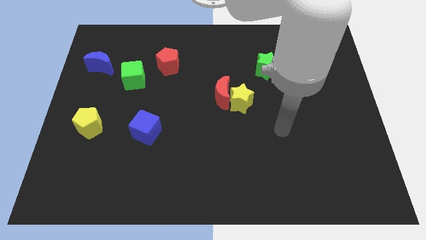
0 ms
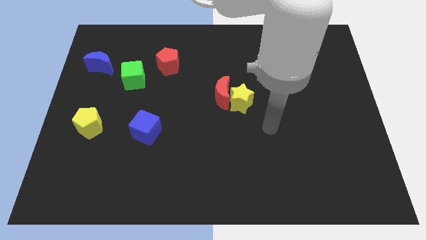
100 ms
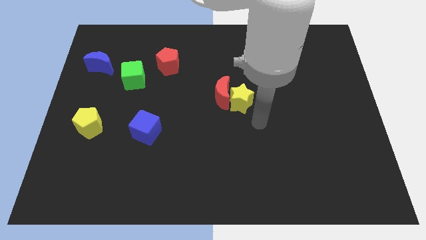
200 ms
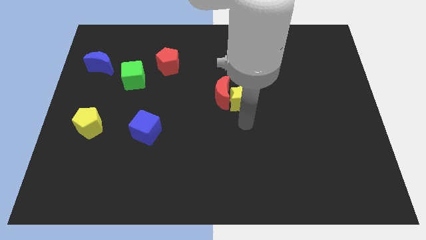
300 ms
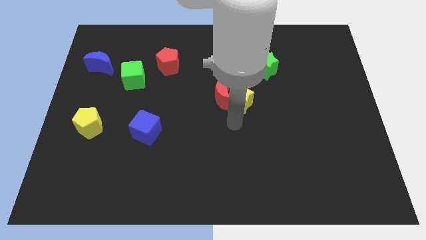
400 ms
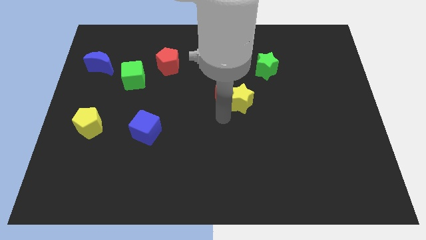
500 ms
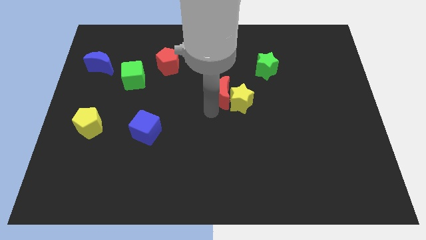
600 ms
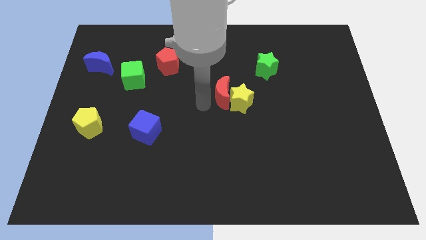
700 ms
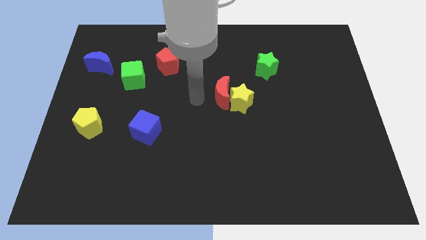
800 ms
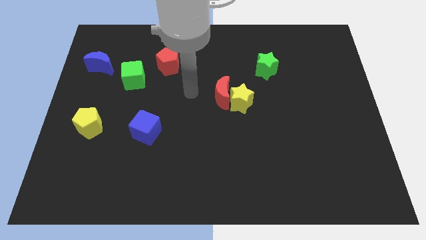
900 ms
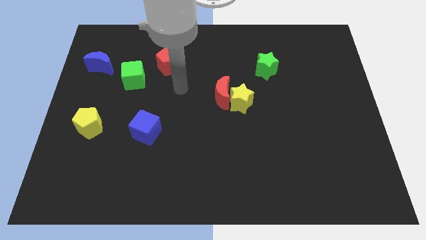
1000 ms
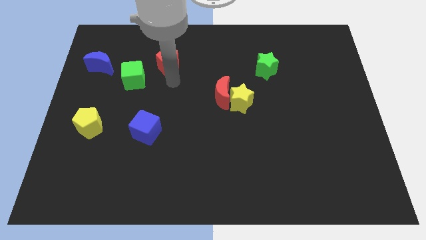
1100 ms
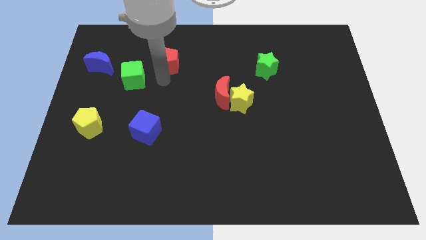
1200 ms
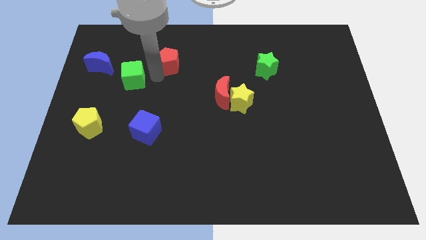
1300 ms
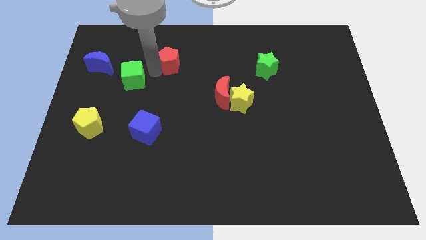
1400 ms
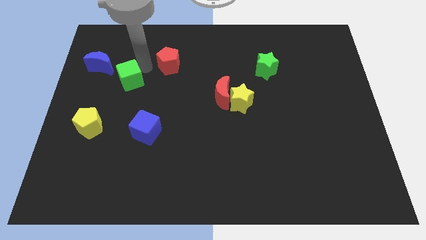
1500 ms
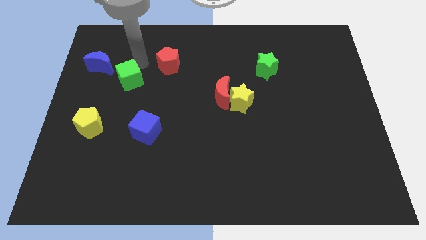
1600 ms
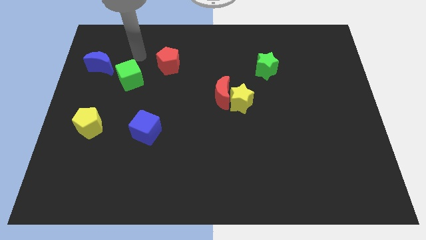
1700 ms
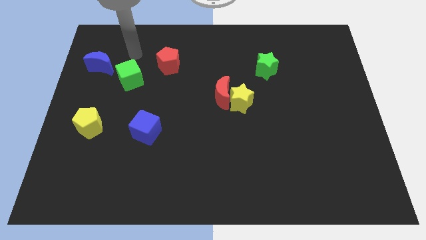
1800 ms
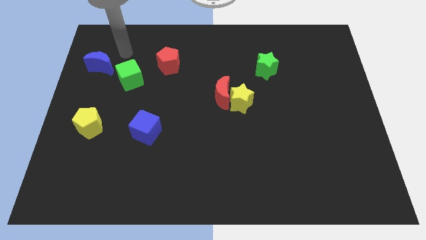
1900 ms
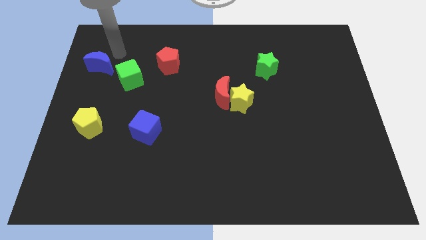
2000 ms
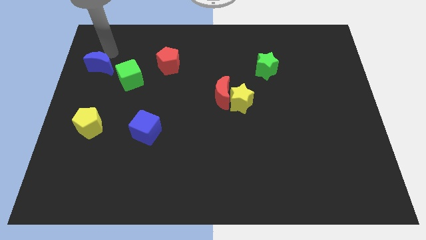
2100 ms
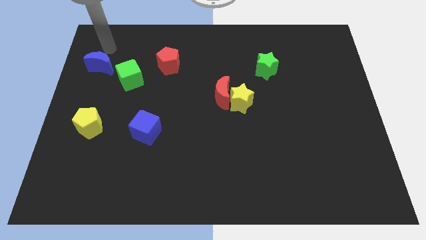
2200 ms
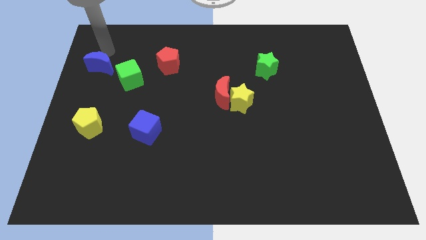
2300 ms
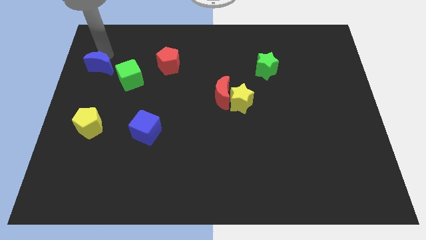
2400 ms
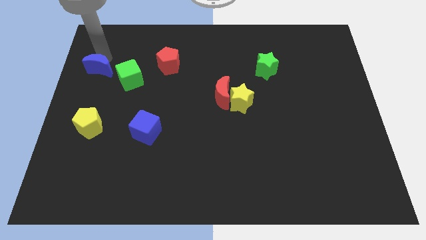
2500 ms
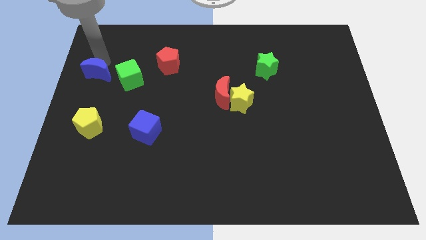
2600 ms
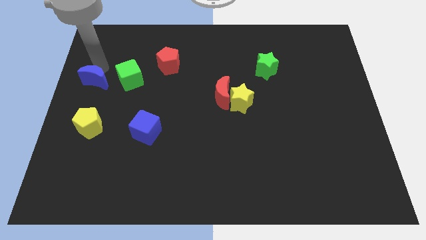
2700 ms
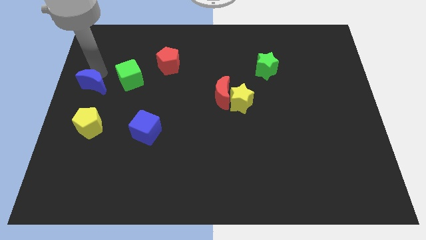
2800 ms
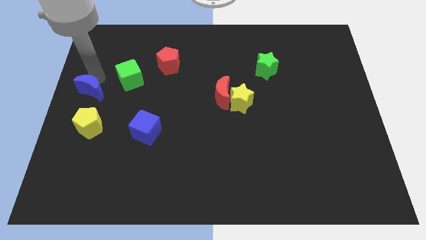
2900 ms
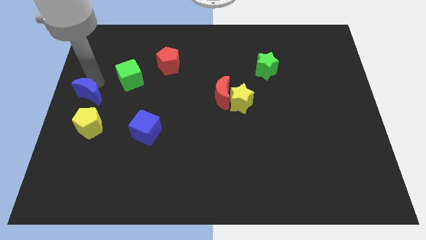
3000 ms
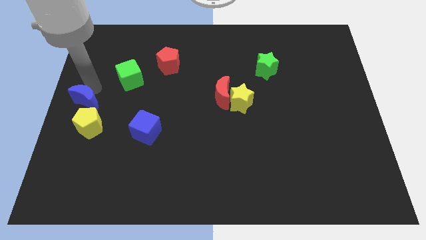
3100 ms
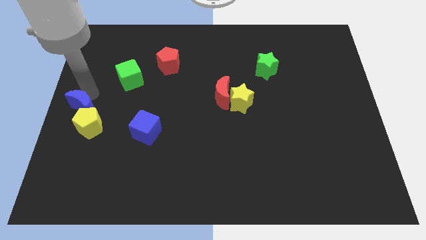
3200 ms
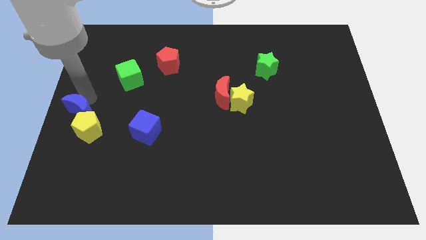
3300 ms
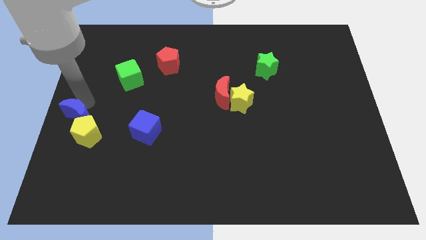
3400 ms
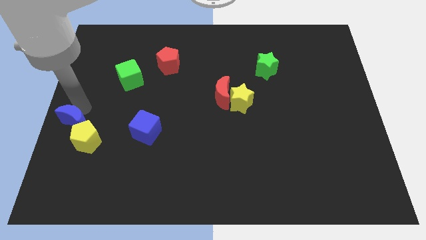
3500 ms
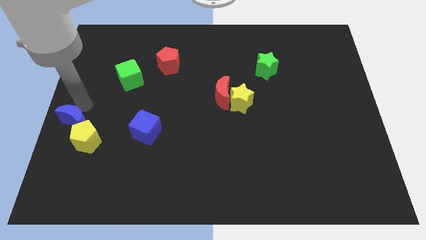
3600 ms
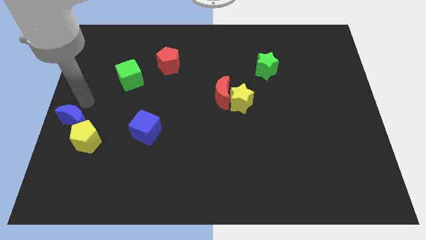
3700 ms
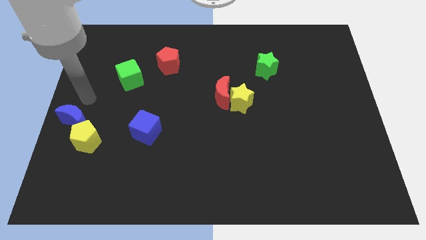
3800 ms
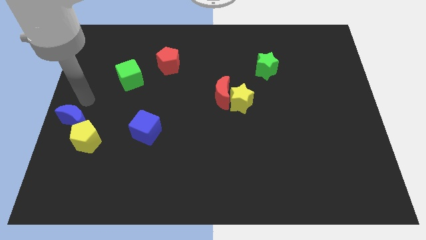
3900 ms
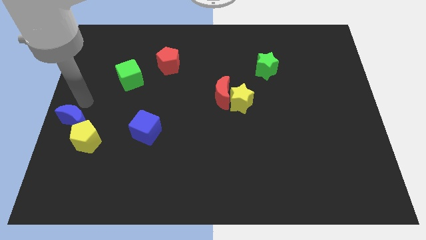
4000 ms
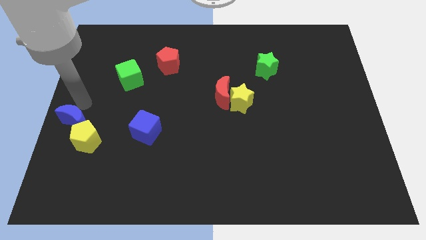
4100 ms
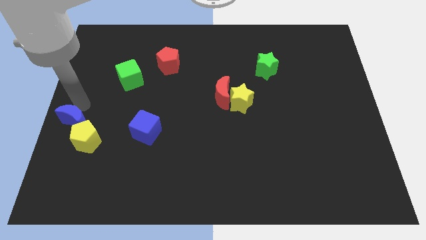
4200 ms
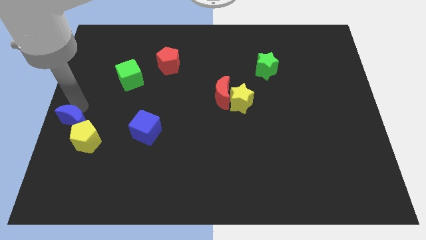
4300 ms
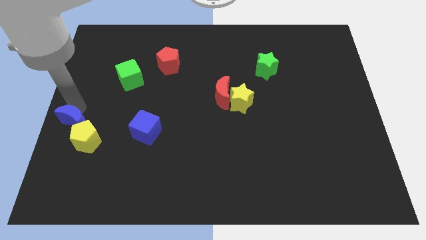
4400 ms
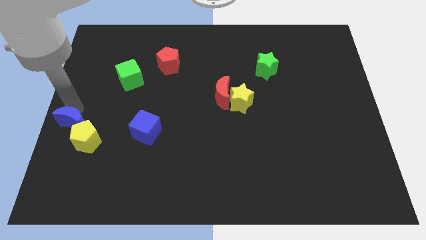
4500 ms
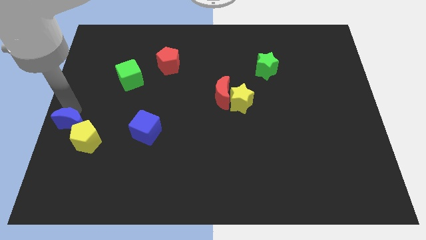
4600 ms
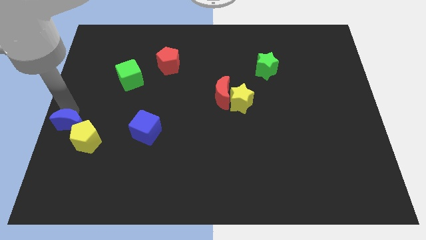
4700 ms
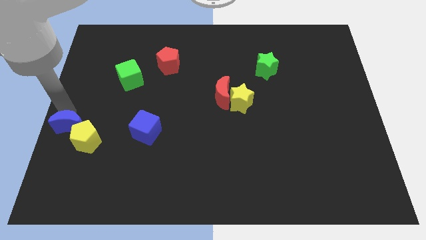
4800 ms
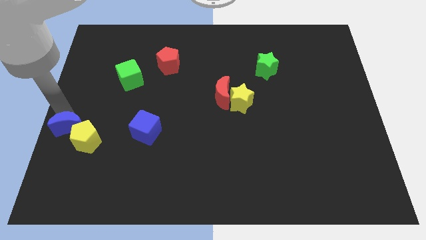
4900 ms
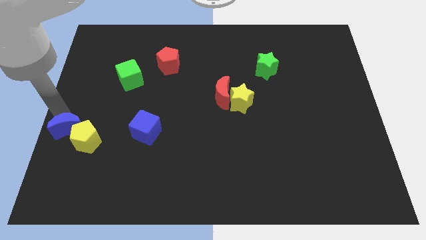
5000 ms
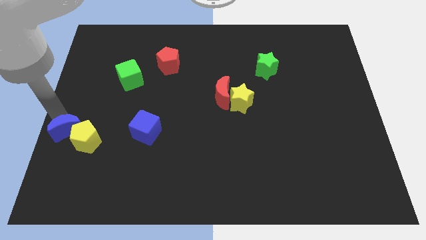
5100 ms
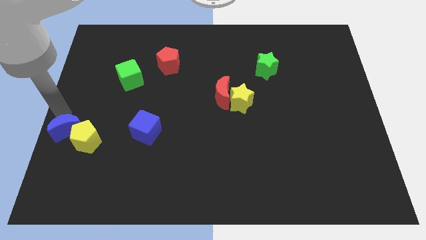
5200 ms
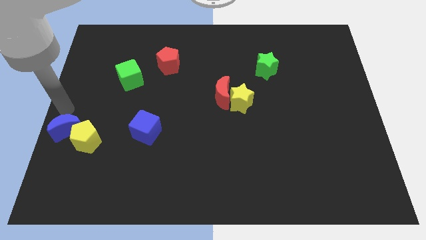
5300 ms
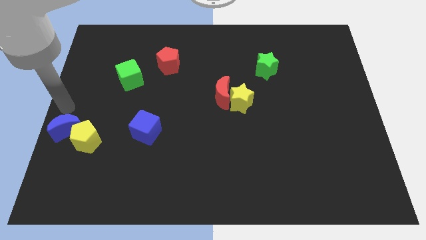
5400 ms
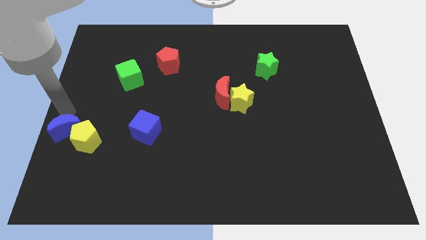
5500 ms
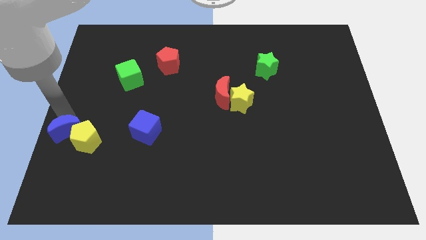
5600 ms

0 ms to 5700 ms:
move the blue moon downwards

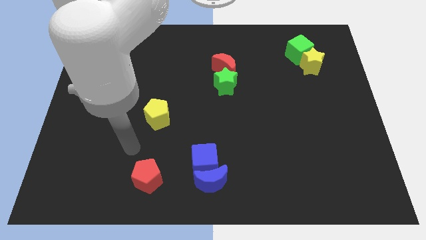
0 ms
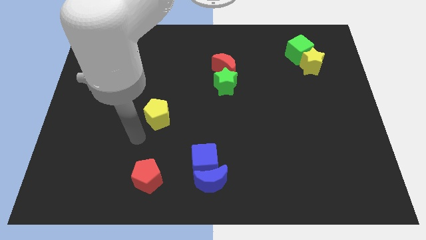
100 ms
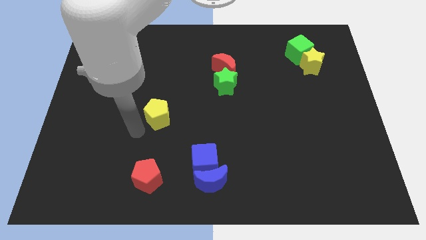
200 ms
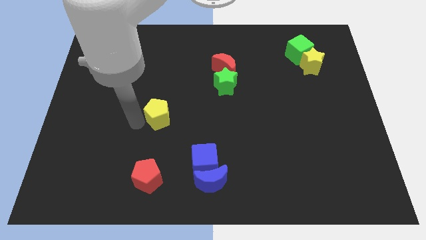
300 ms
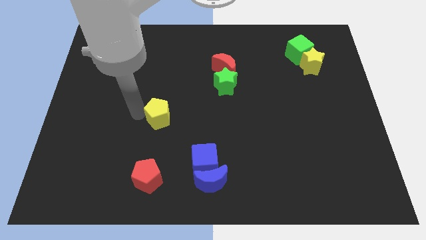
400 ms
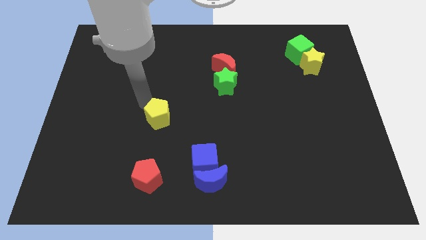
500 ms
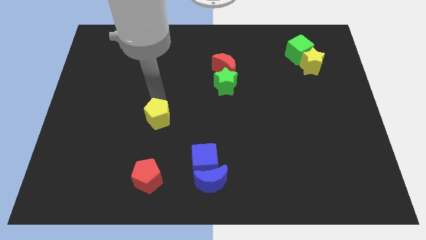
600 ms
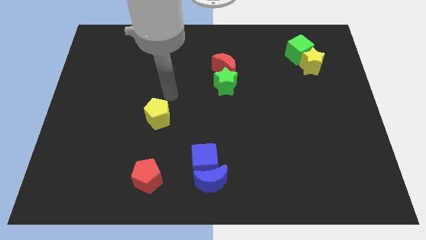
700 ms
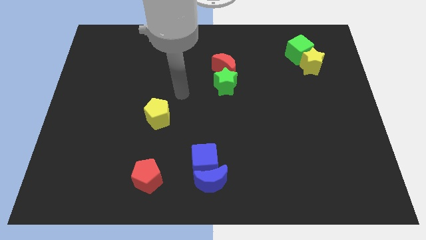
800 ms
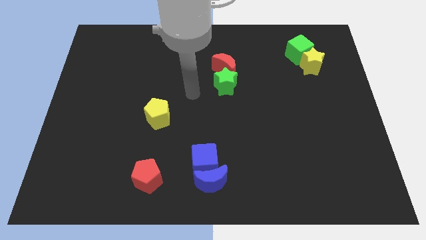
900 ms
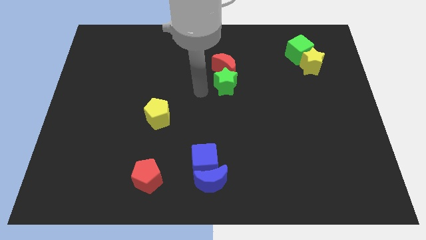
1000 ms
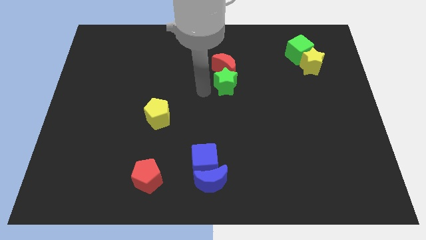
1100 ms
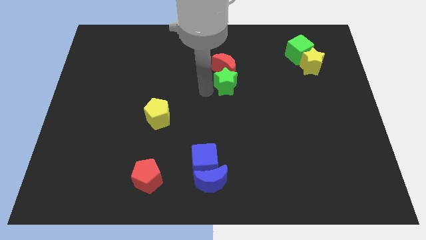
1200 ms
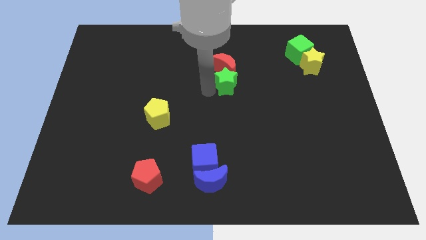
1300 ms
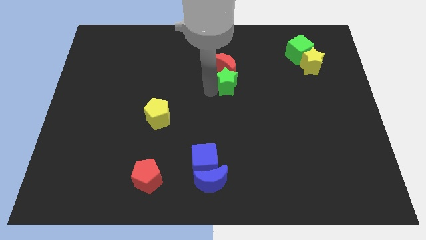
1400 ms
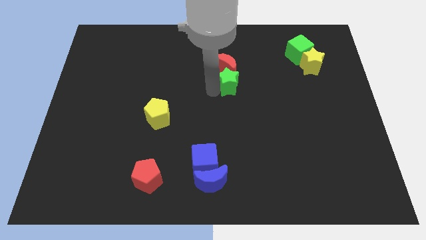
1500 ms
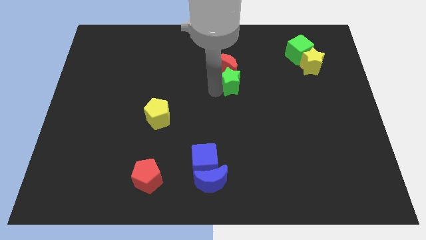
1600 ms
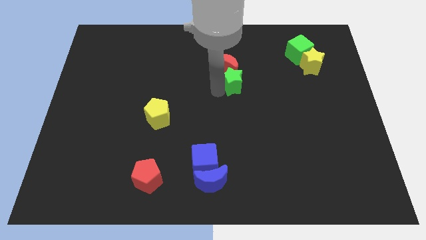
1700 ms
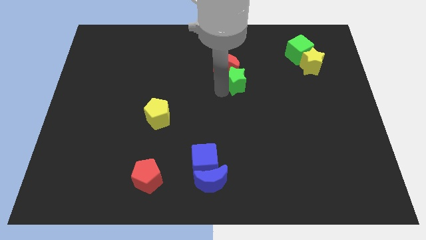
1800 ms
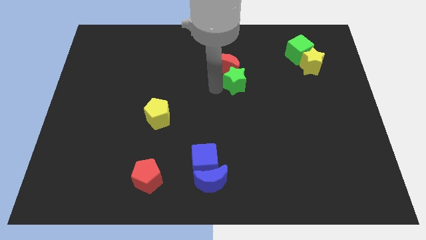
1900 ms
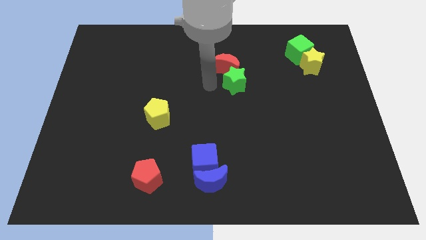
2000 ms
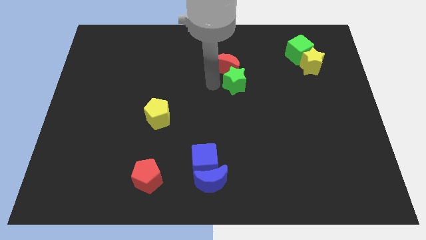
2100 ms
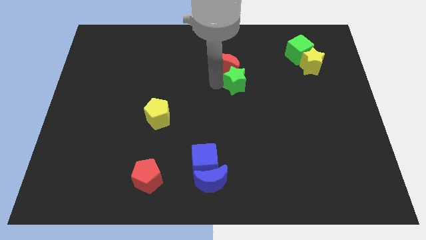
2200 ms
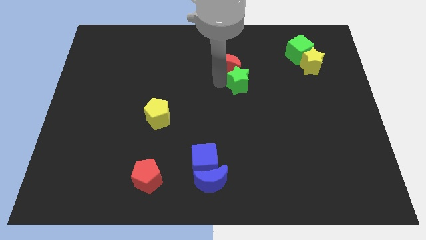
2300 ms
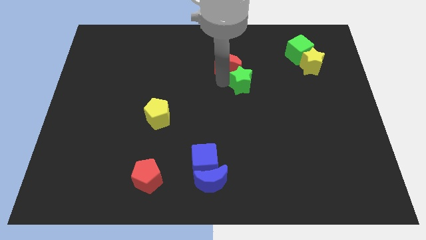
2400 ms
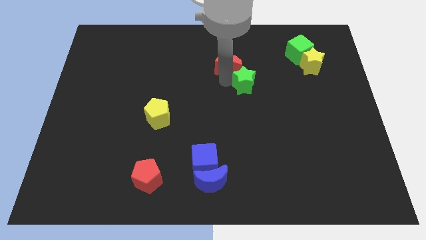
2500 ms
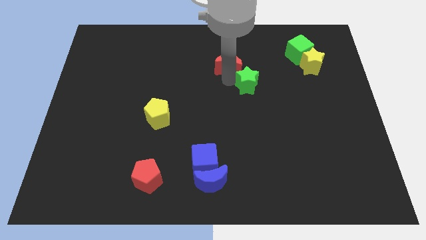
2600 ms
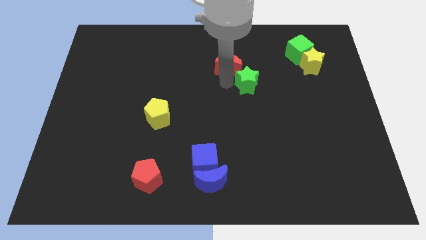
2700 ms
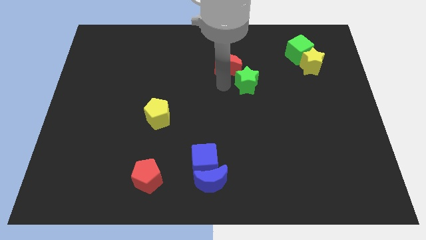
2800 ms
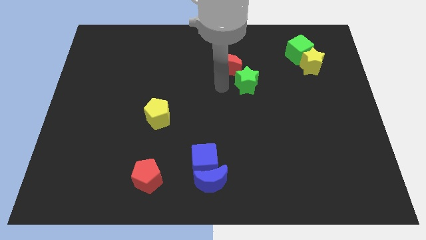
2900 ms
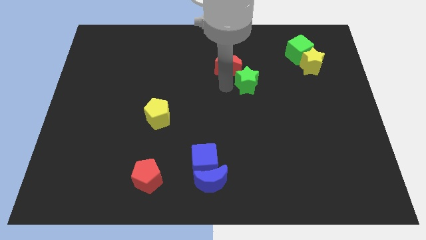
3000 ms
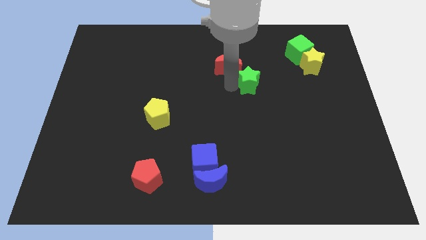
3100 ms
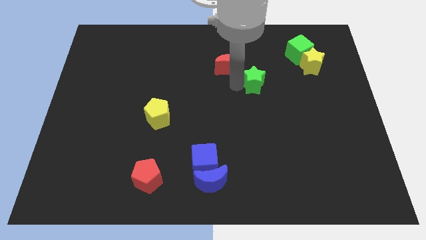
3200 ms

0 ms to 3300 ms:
push the green star slightly right
